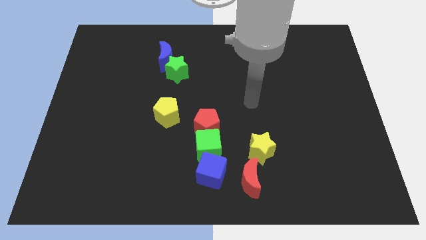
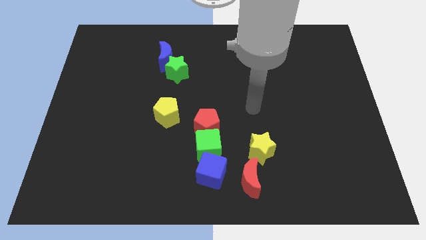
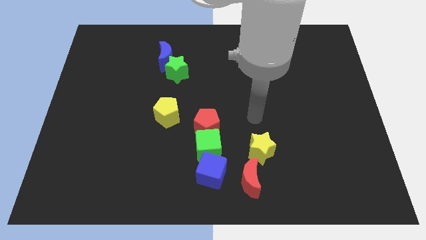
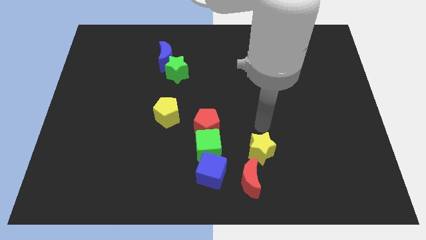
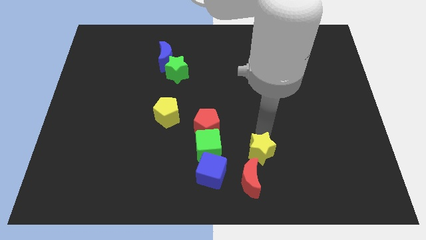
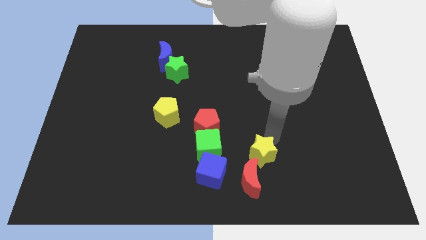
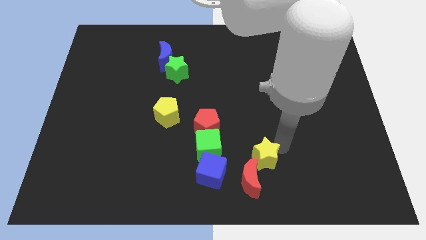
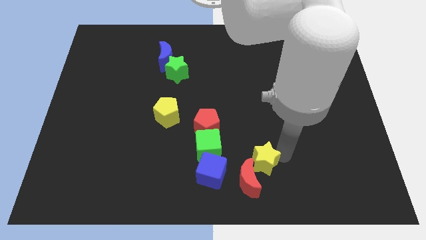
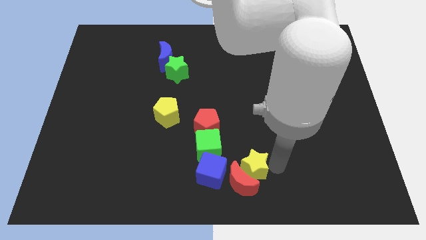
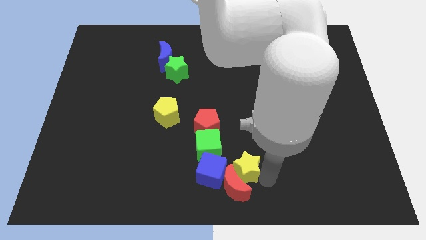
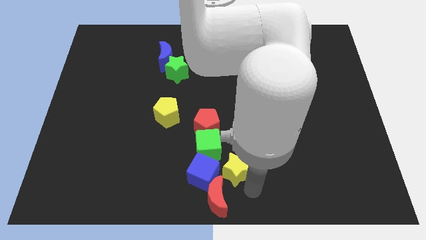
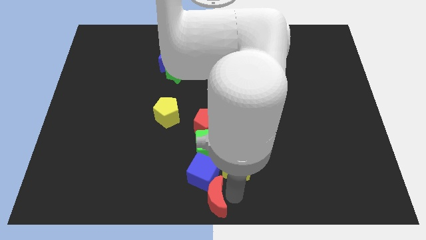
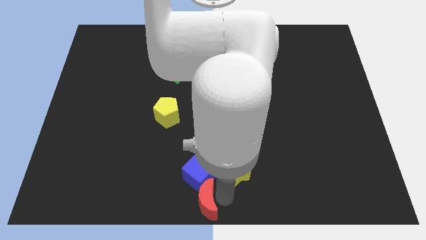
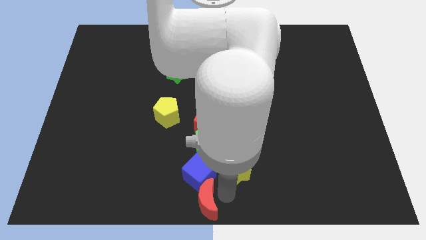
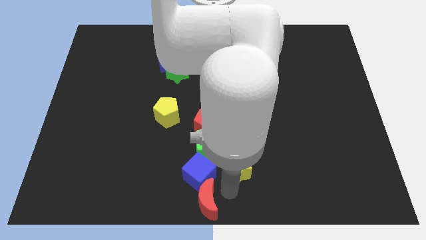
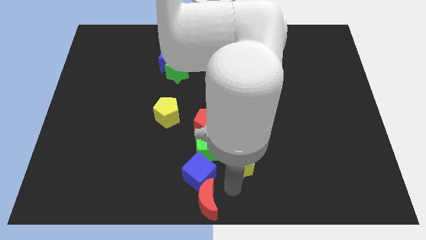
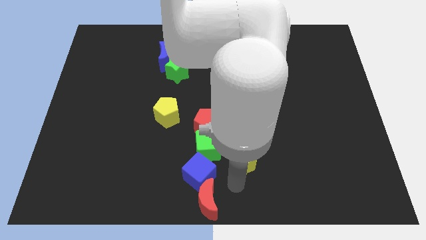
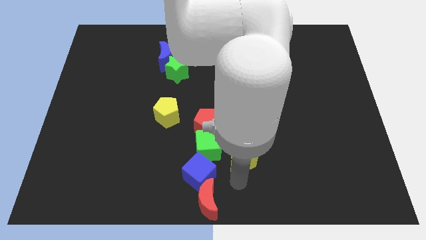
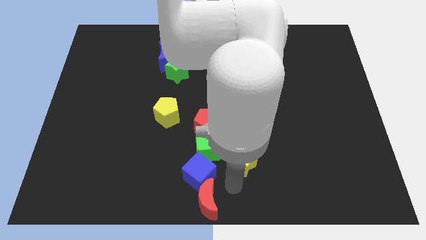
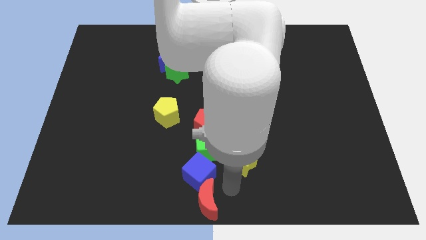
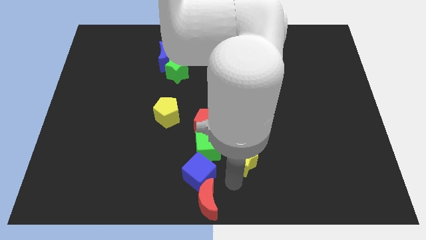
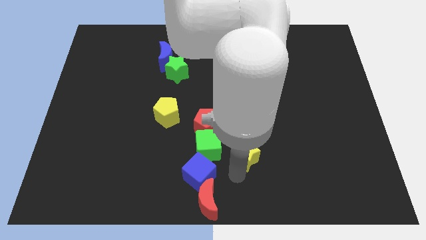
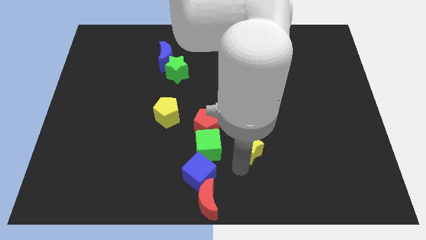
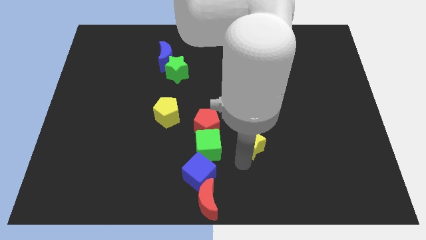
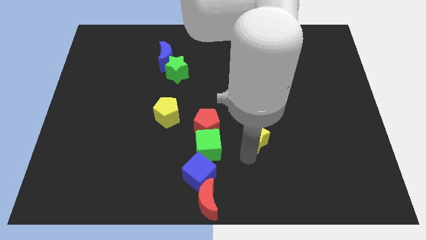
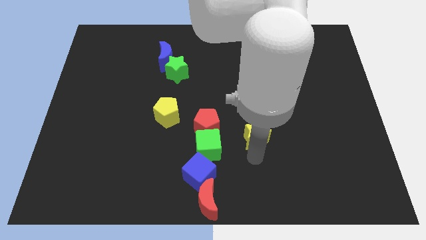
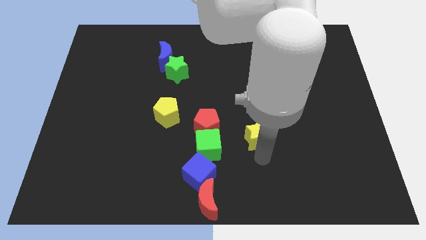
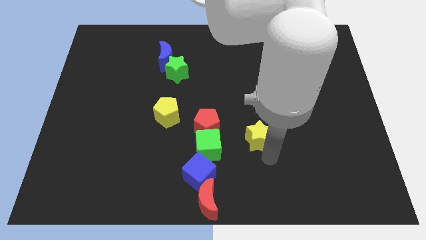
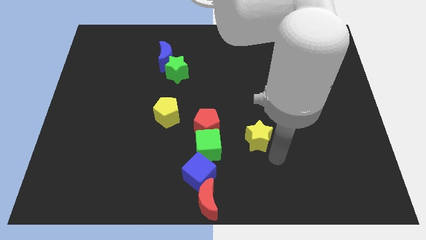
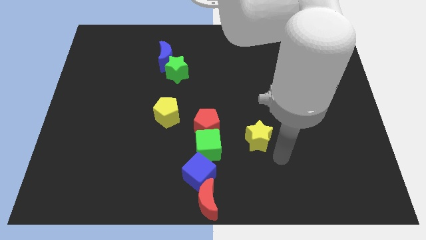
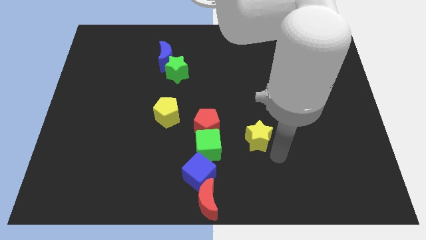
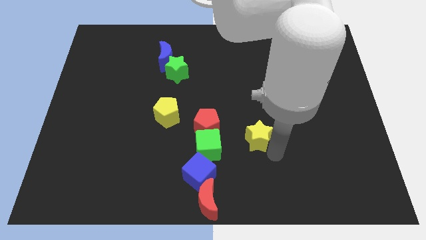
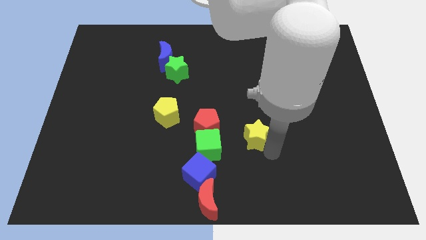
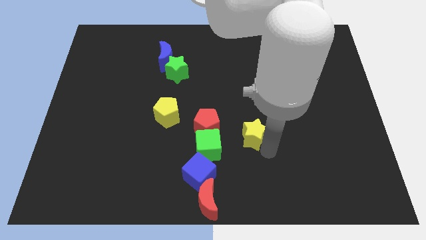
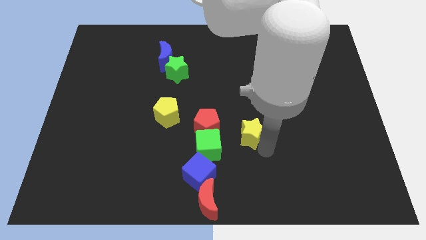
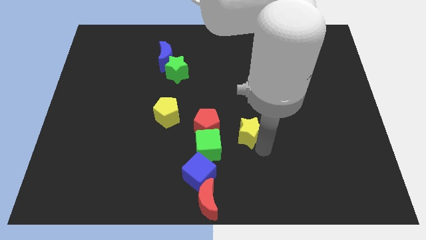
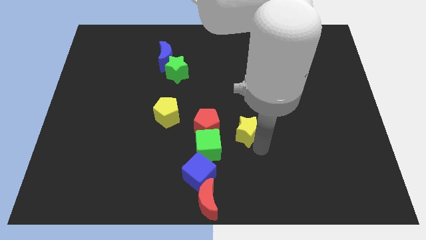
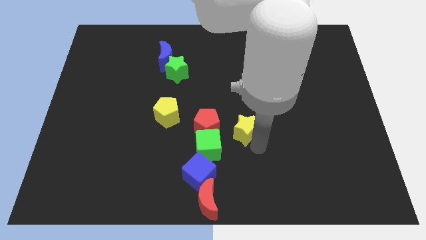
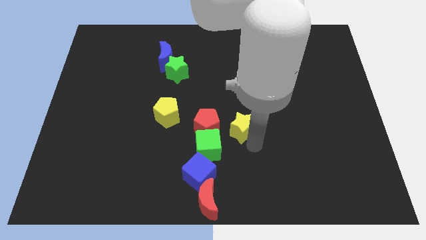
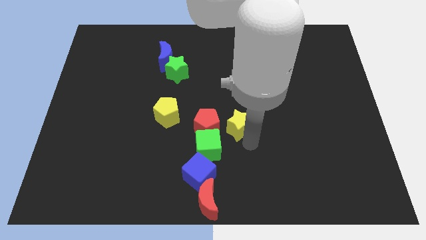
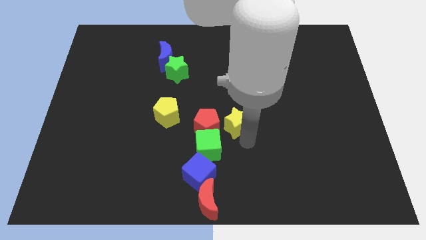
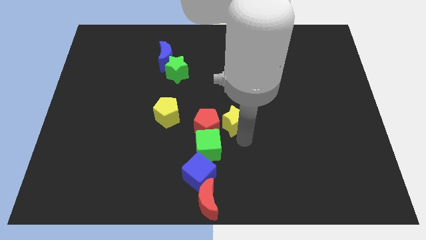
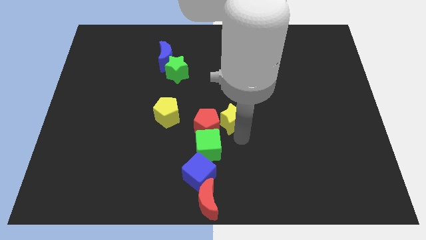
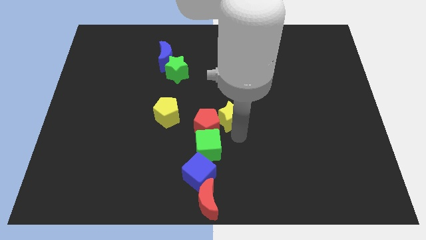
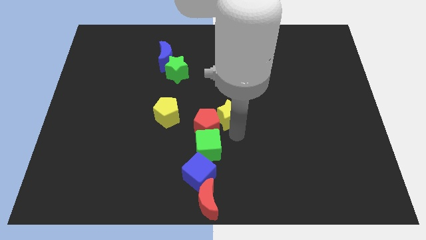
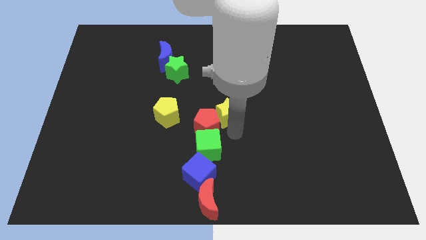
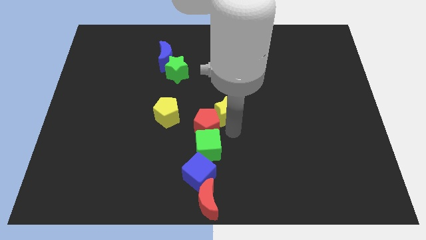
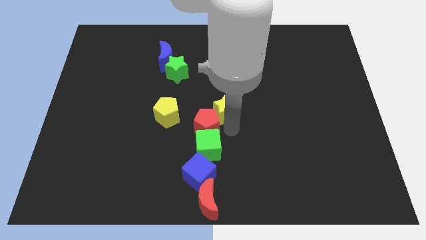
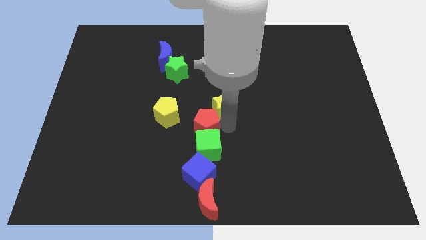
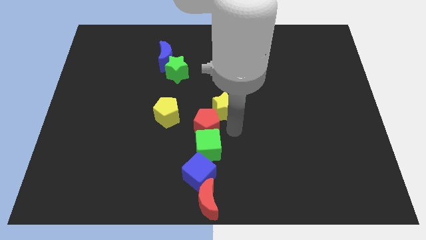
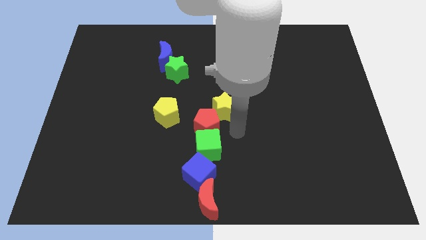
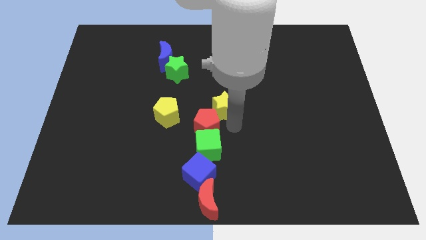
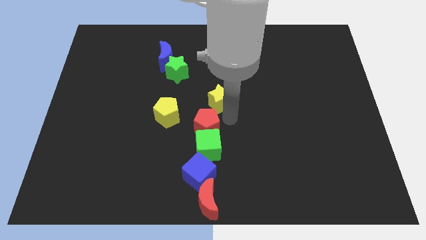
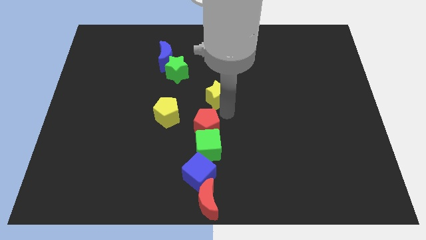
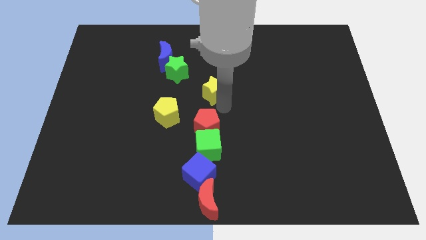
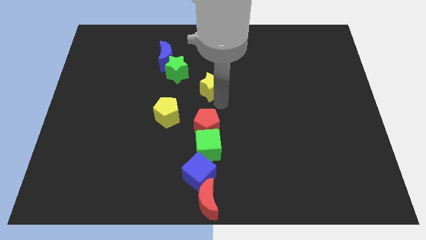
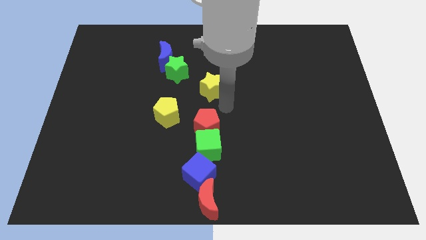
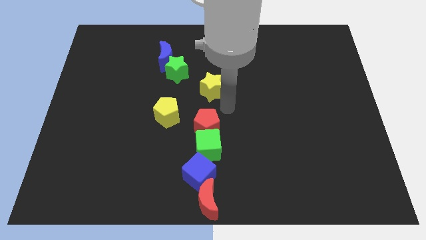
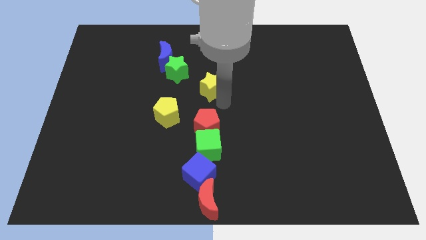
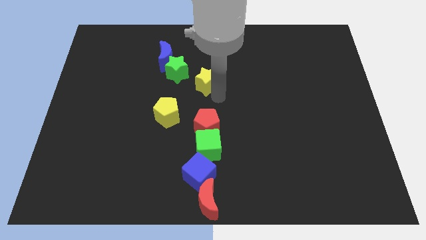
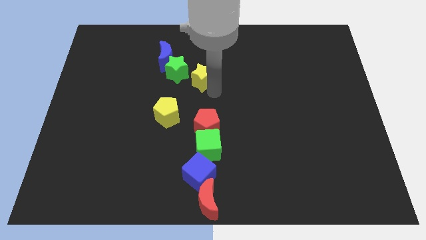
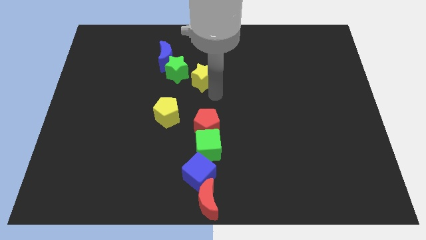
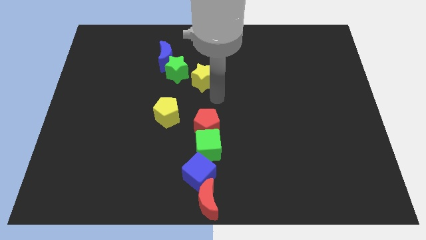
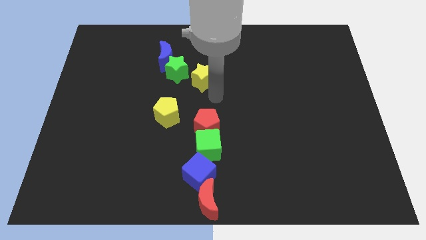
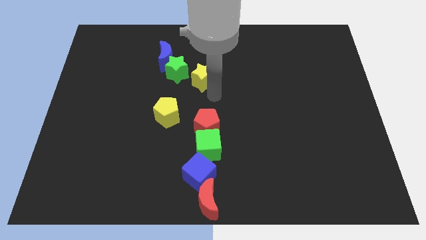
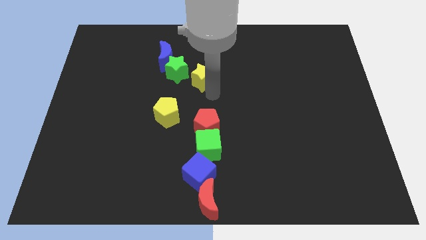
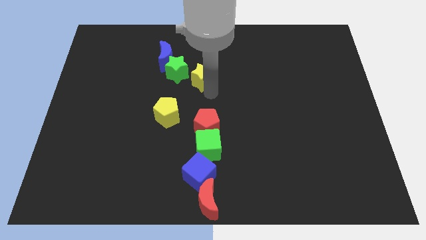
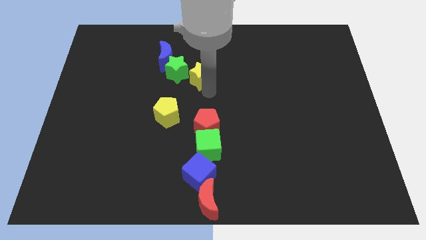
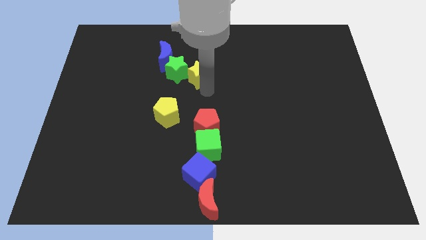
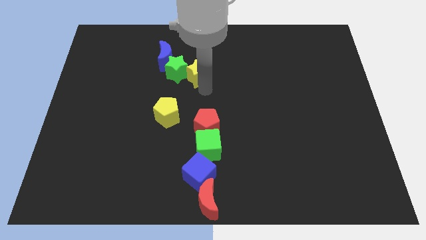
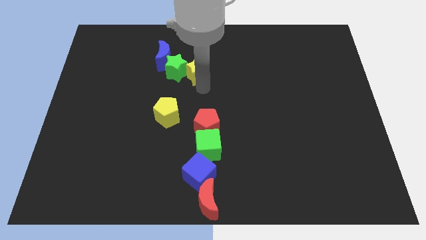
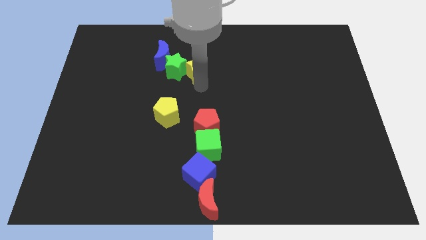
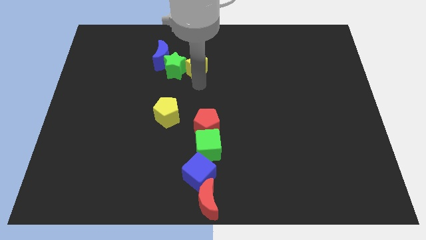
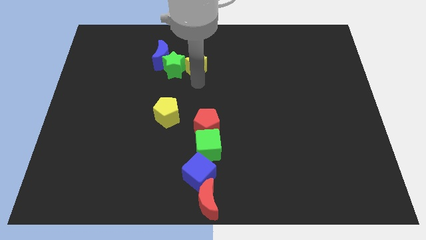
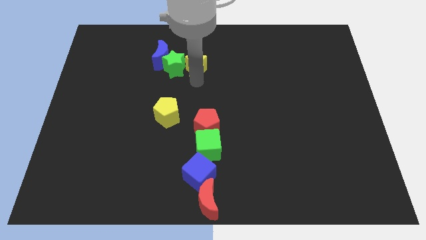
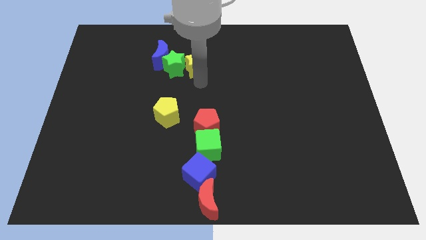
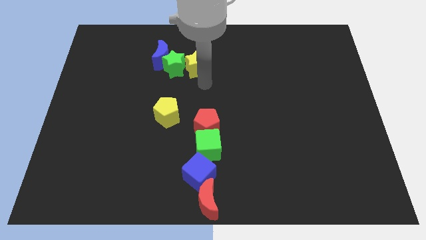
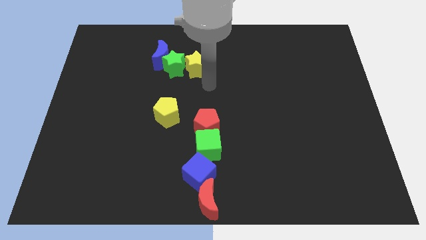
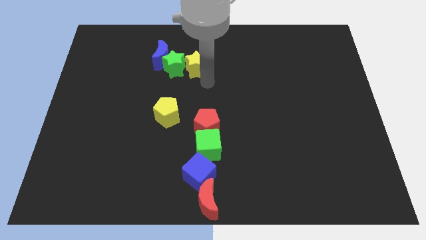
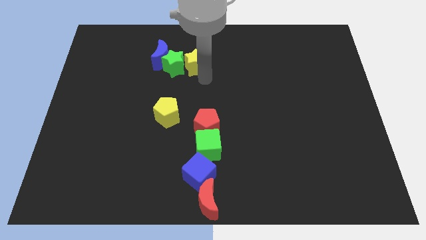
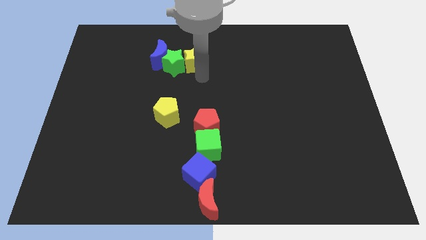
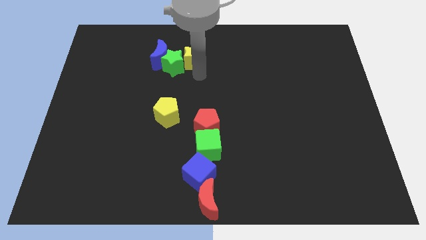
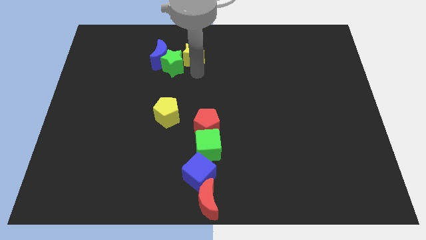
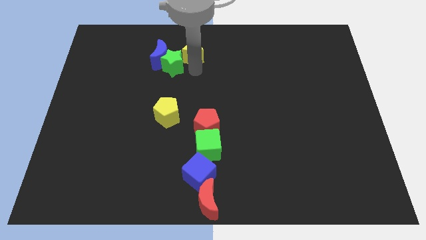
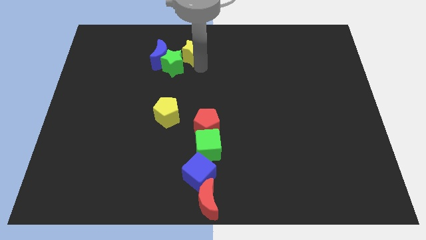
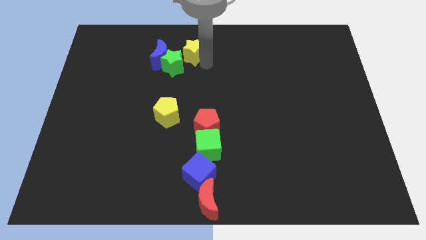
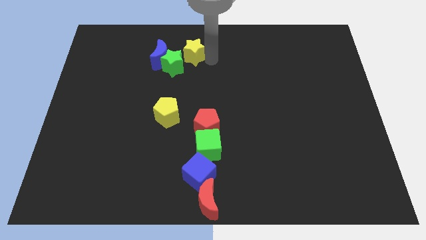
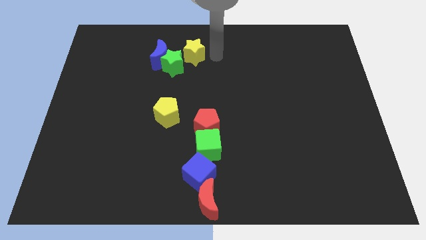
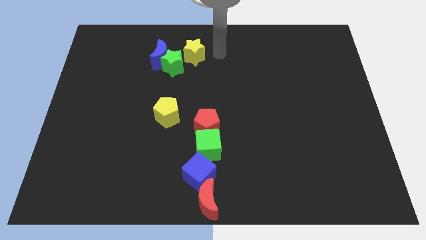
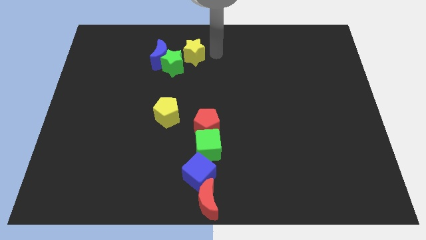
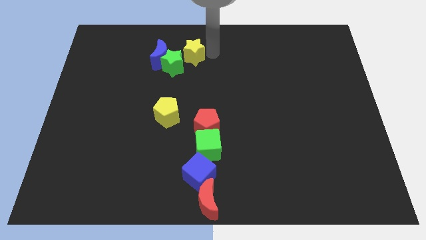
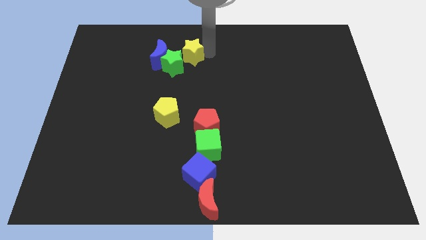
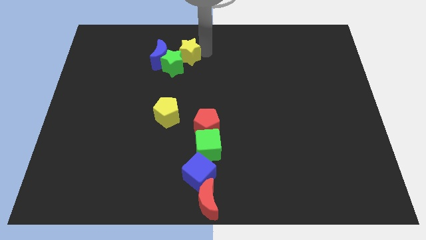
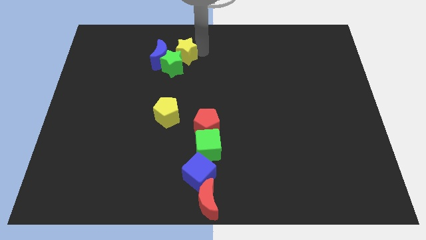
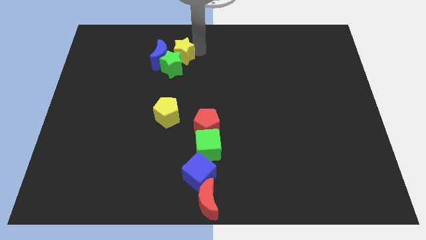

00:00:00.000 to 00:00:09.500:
push the yellow star towards the blue moon
